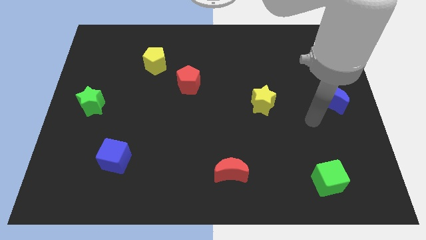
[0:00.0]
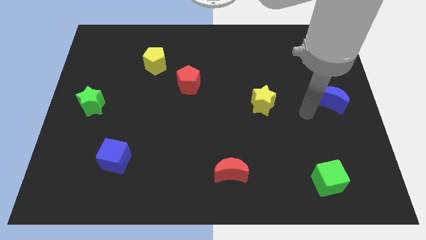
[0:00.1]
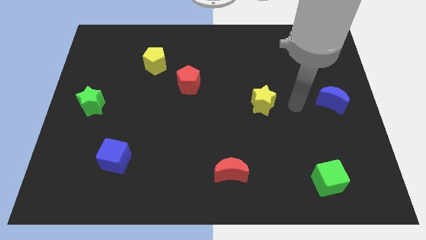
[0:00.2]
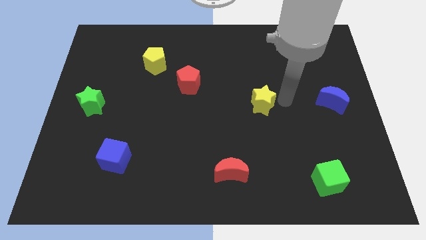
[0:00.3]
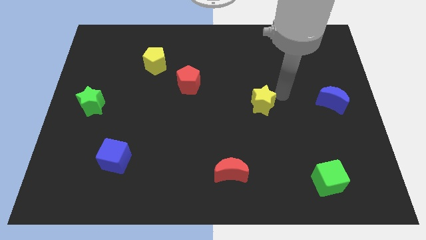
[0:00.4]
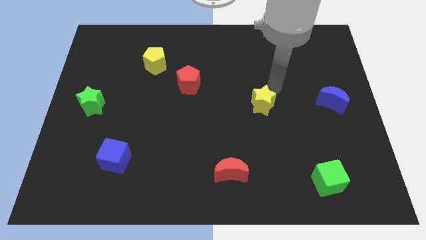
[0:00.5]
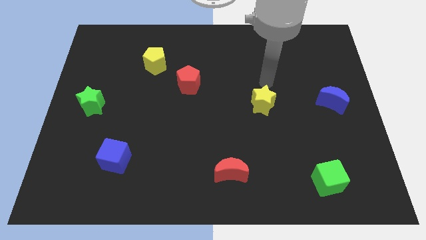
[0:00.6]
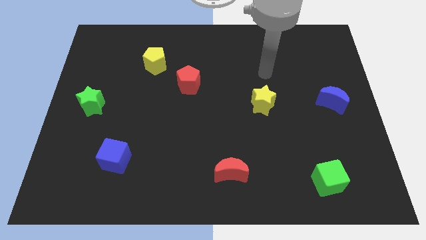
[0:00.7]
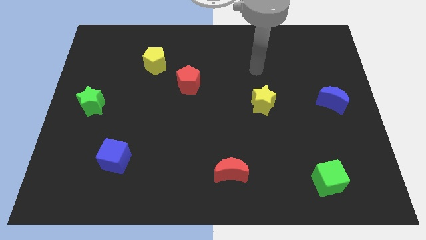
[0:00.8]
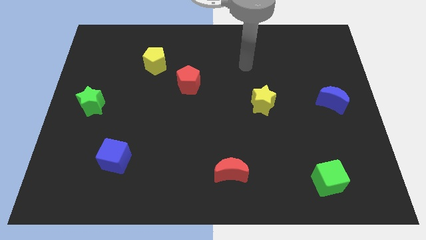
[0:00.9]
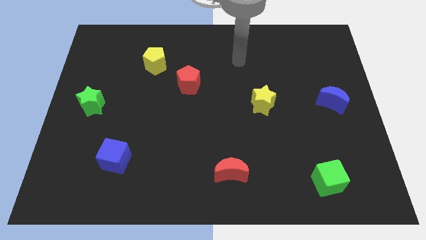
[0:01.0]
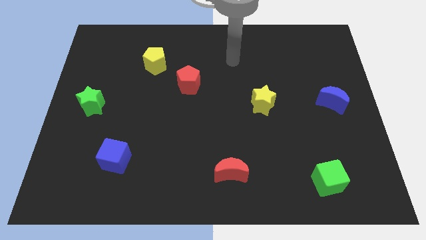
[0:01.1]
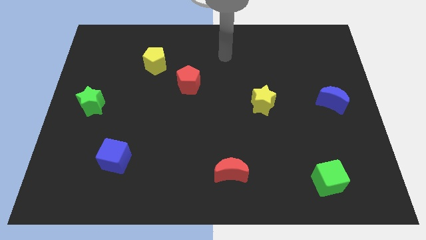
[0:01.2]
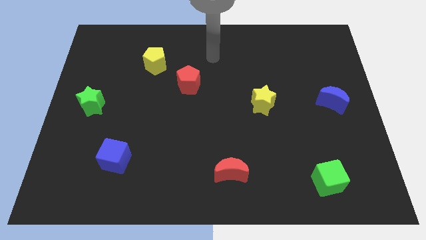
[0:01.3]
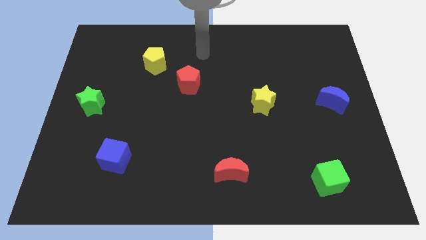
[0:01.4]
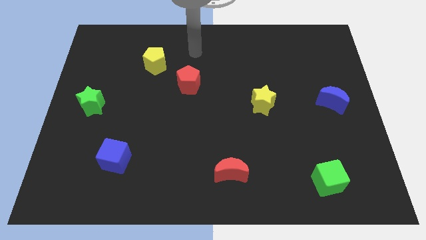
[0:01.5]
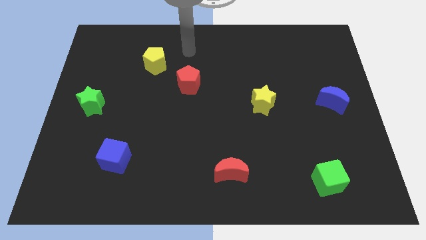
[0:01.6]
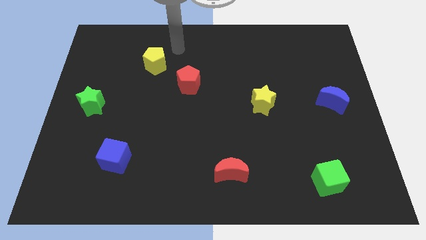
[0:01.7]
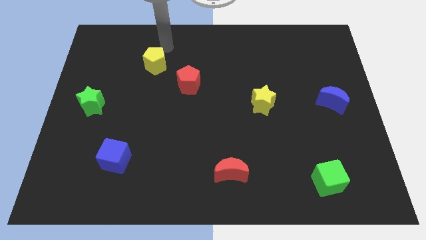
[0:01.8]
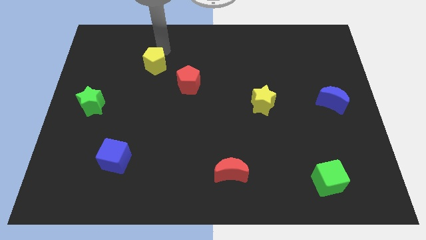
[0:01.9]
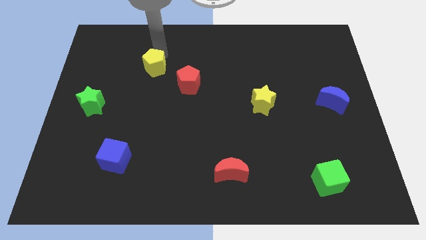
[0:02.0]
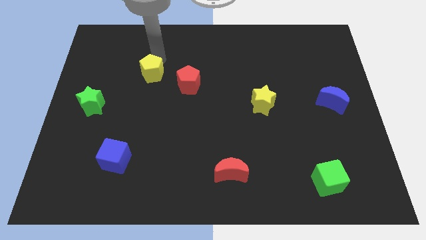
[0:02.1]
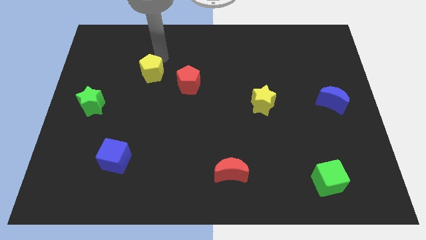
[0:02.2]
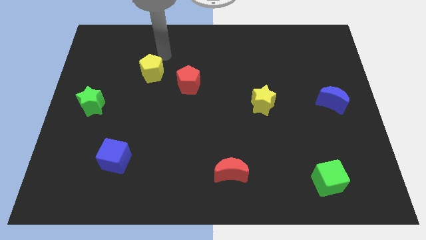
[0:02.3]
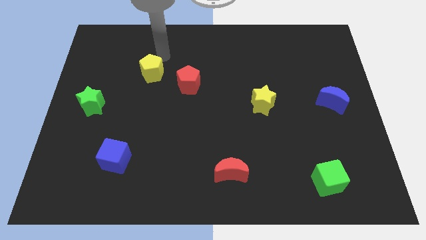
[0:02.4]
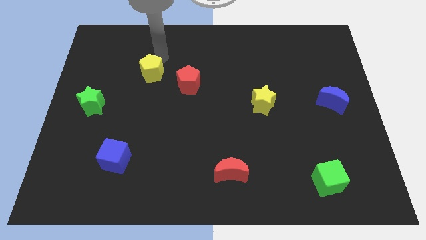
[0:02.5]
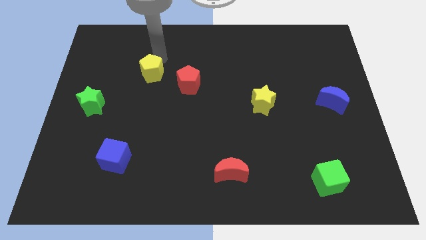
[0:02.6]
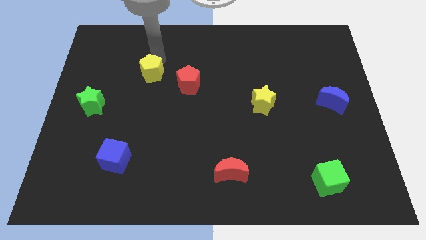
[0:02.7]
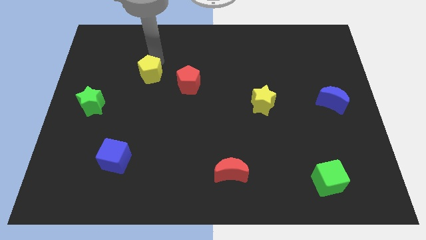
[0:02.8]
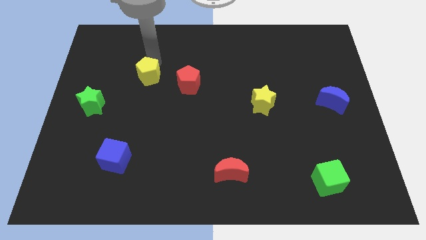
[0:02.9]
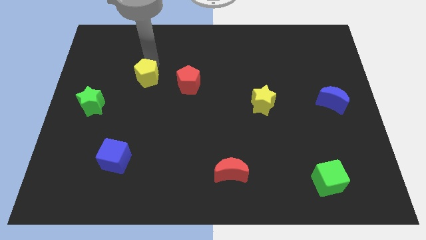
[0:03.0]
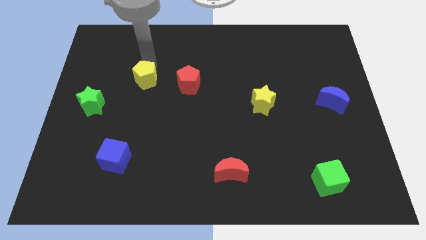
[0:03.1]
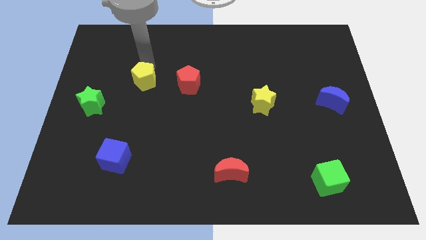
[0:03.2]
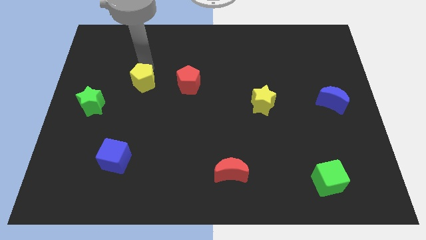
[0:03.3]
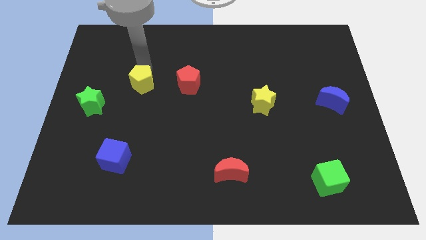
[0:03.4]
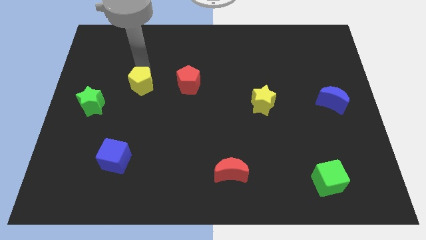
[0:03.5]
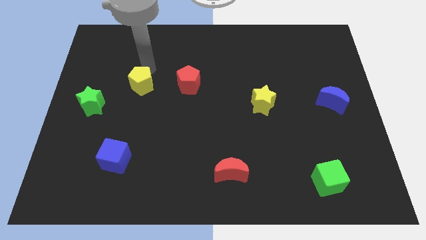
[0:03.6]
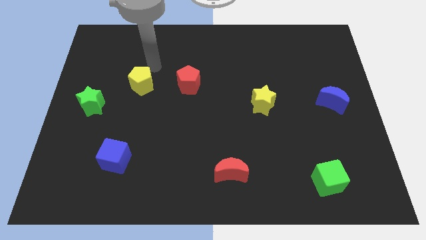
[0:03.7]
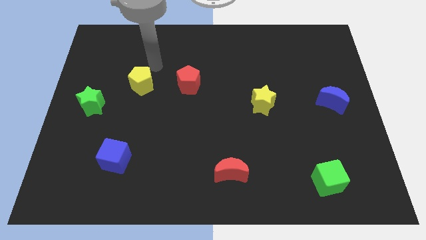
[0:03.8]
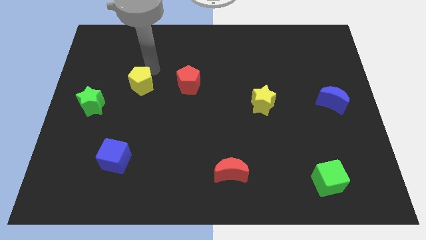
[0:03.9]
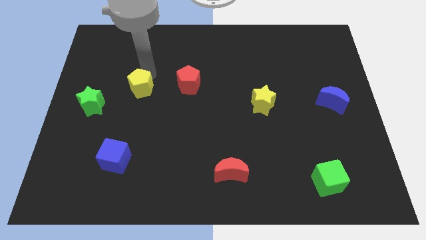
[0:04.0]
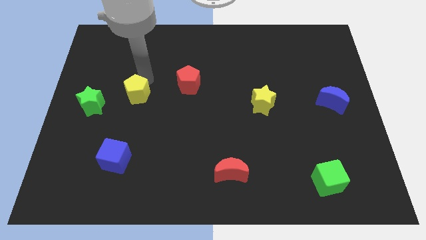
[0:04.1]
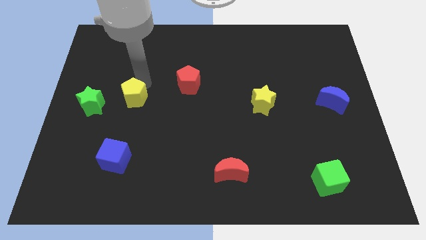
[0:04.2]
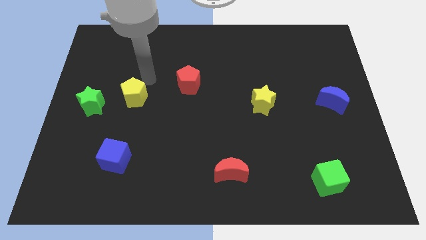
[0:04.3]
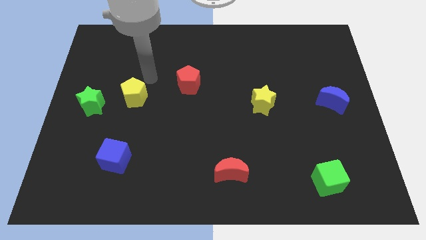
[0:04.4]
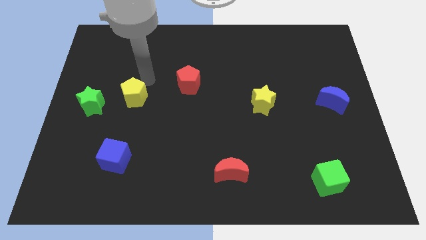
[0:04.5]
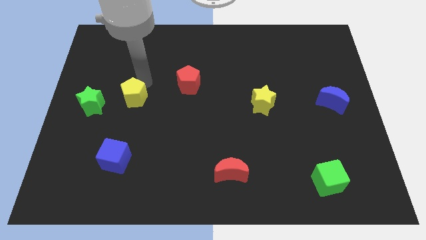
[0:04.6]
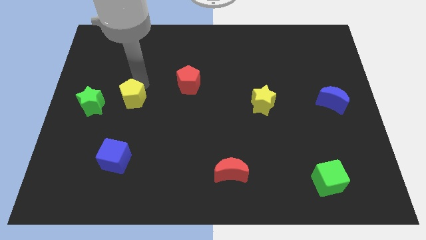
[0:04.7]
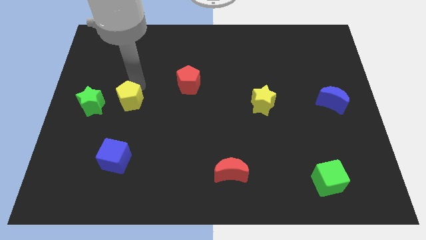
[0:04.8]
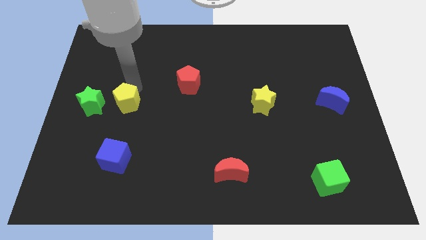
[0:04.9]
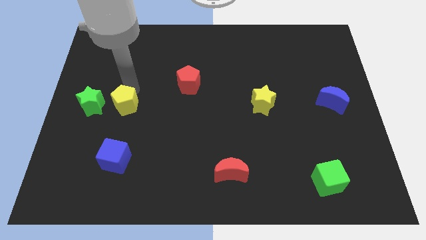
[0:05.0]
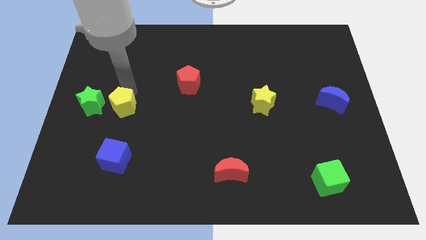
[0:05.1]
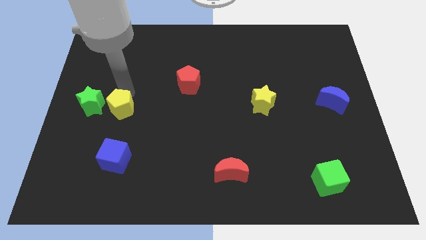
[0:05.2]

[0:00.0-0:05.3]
move the yellow pentagon diagonally down and to the right of the green star

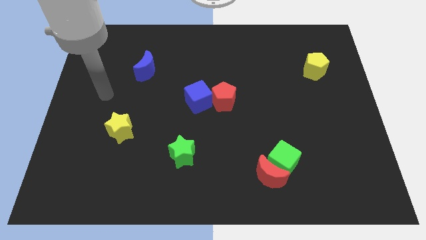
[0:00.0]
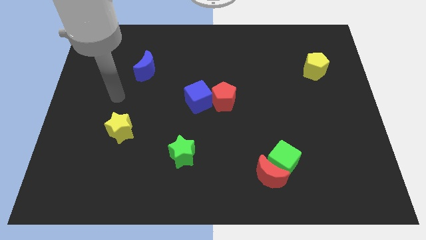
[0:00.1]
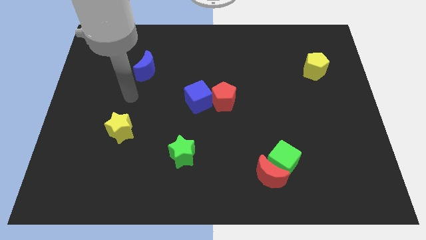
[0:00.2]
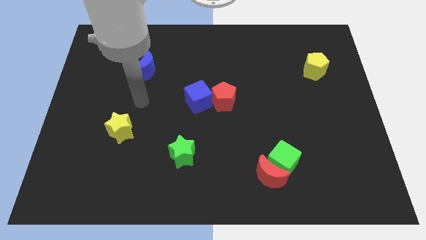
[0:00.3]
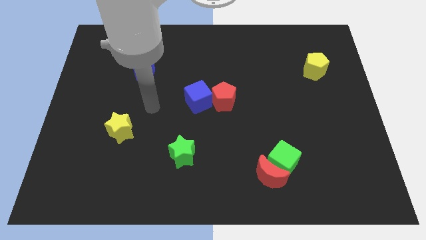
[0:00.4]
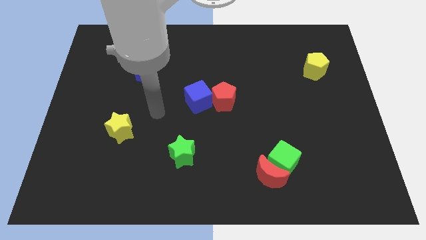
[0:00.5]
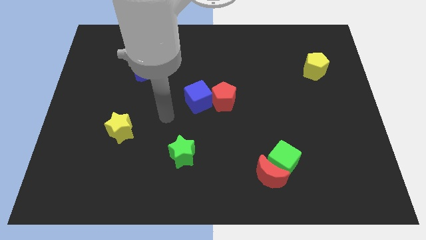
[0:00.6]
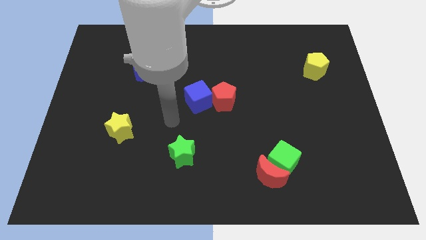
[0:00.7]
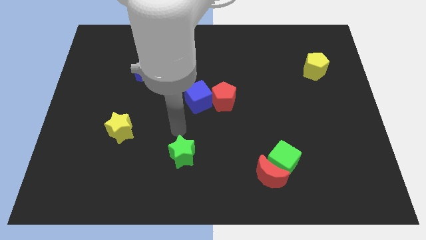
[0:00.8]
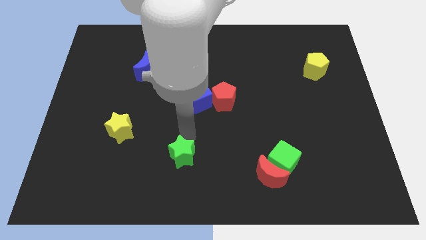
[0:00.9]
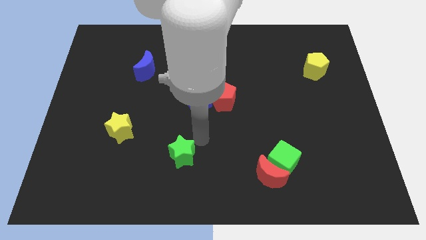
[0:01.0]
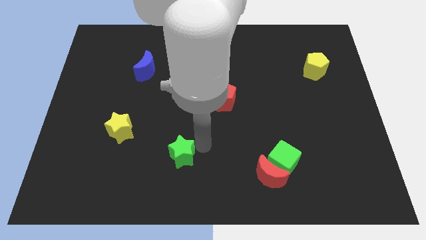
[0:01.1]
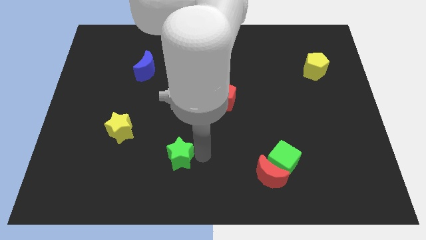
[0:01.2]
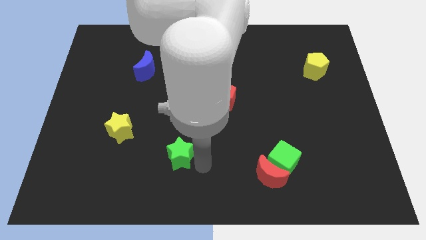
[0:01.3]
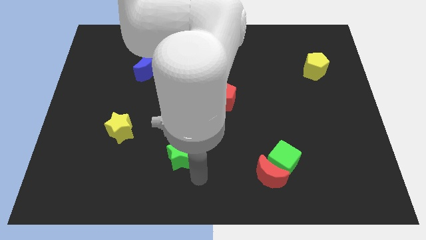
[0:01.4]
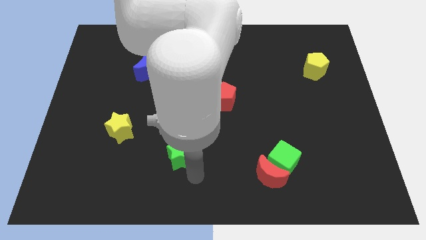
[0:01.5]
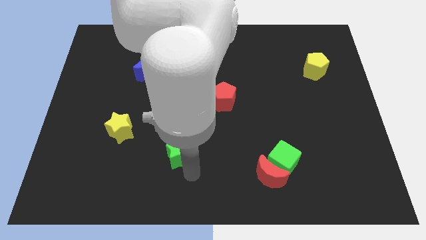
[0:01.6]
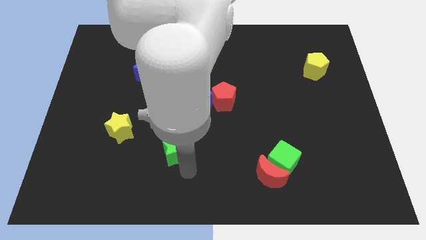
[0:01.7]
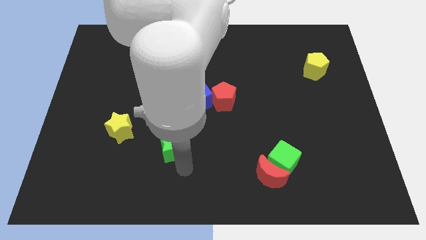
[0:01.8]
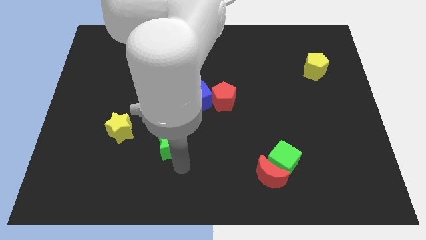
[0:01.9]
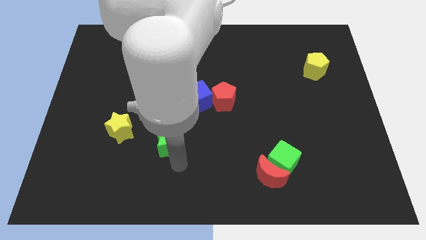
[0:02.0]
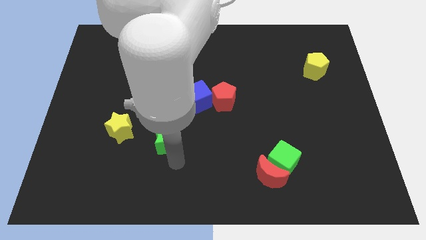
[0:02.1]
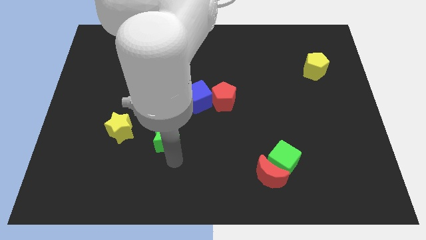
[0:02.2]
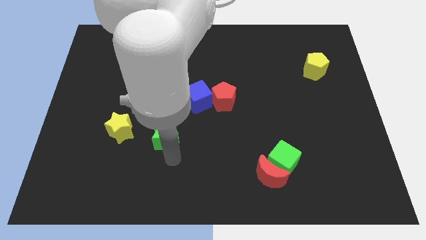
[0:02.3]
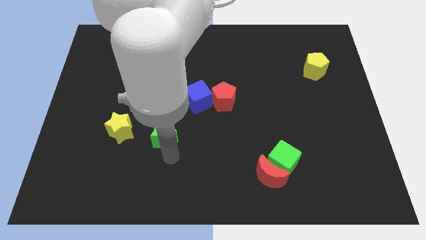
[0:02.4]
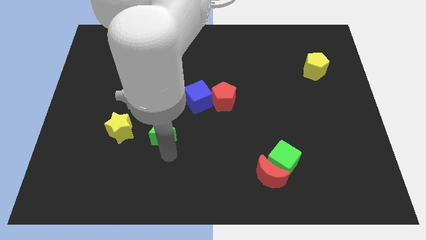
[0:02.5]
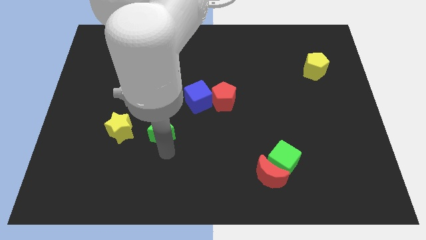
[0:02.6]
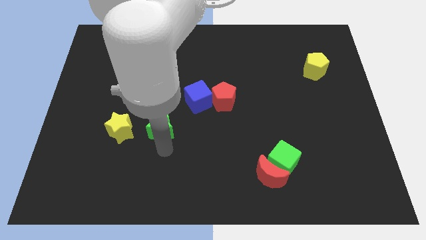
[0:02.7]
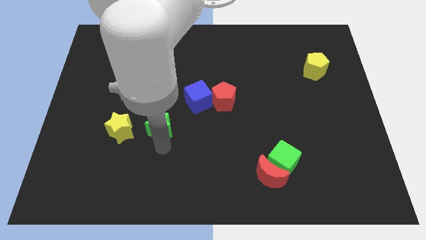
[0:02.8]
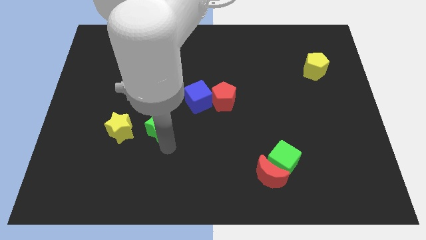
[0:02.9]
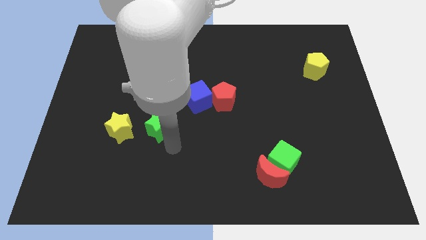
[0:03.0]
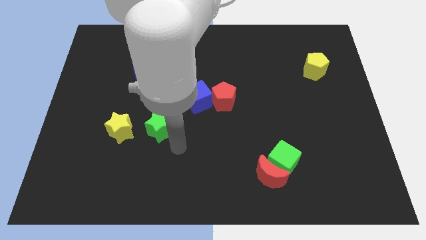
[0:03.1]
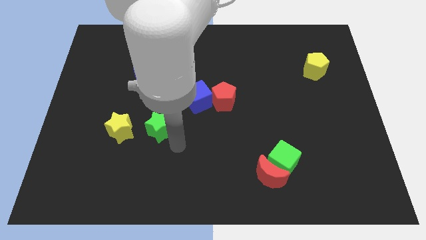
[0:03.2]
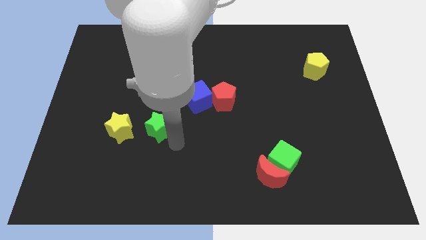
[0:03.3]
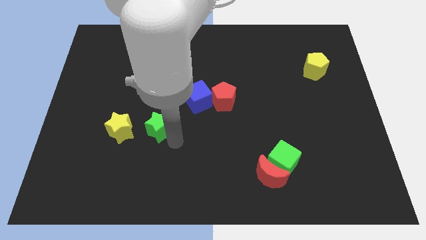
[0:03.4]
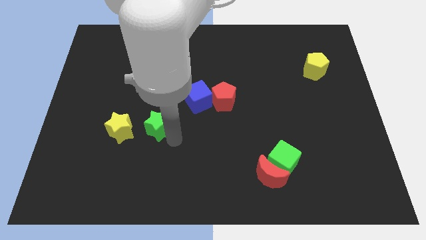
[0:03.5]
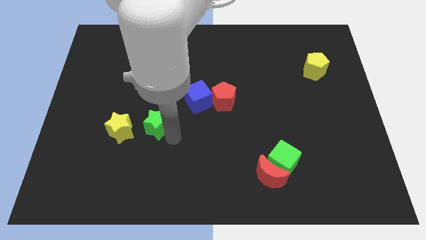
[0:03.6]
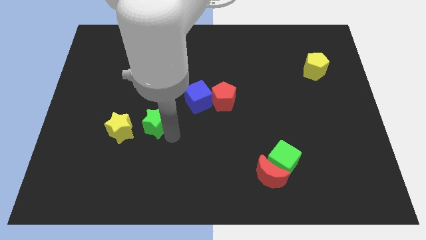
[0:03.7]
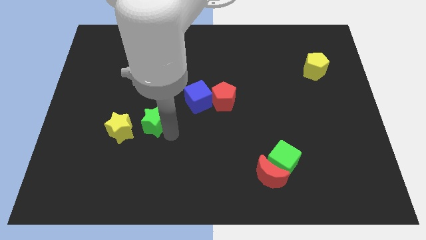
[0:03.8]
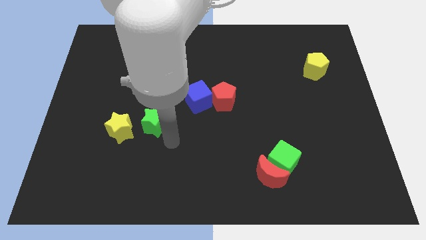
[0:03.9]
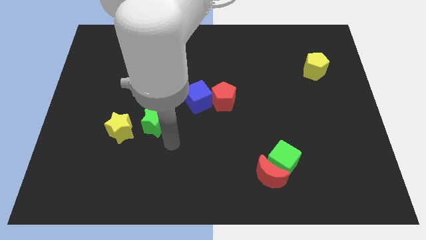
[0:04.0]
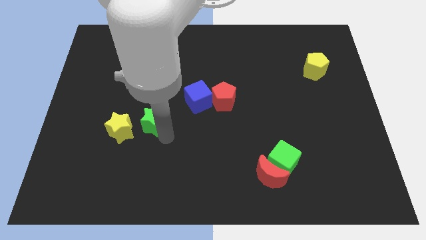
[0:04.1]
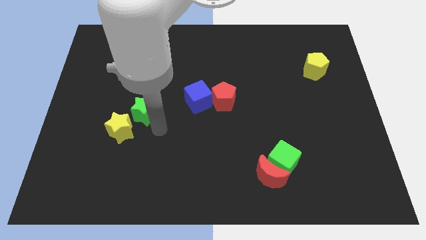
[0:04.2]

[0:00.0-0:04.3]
slide the green star above the yellow star
